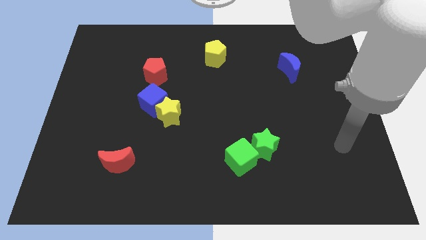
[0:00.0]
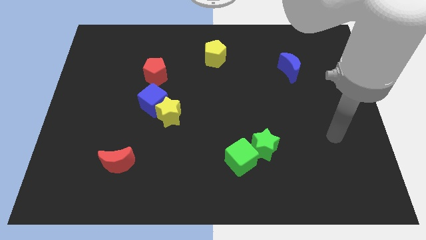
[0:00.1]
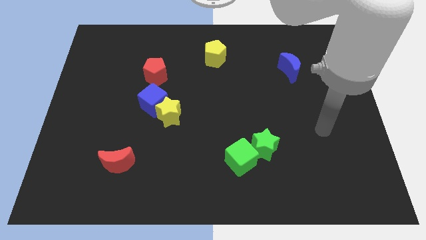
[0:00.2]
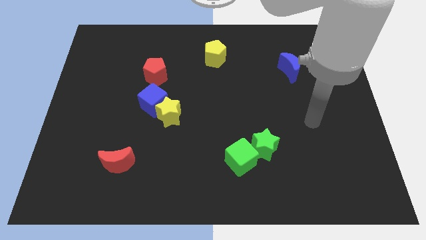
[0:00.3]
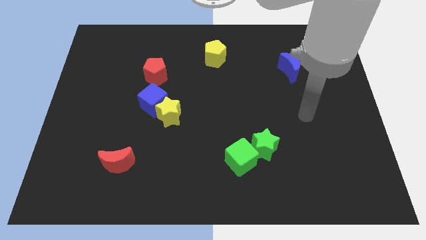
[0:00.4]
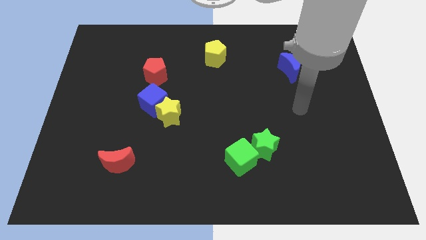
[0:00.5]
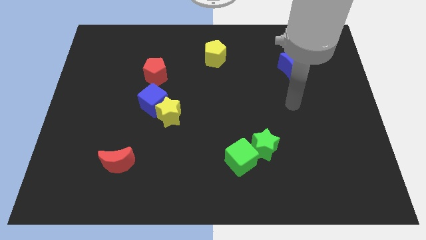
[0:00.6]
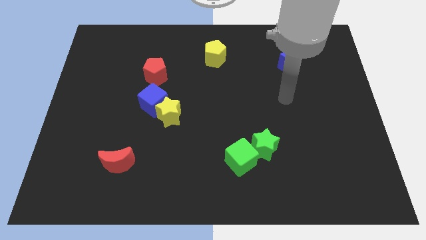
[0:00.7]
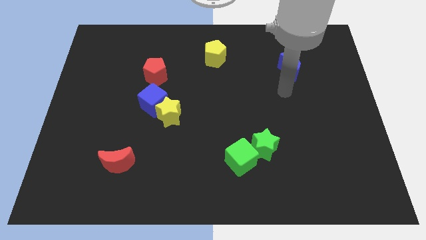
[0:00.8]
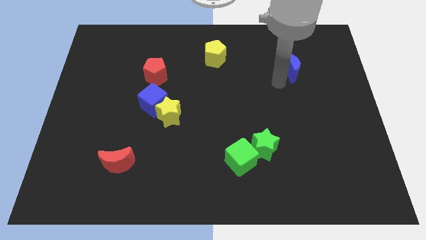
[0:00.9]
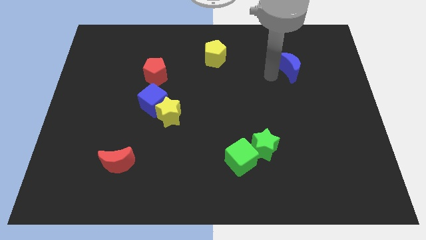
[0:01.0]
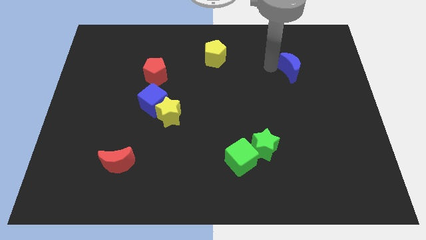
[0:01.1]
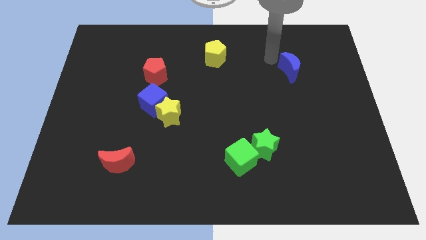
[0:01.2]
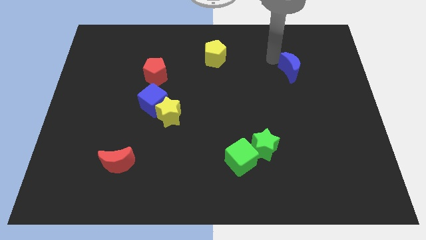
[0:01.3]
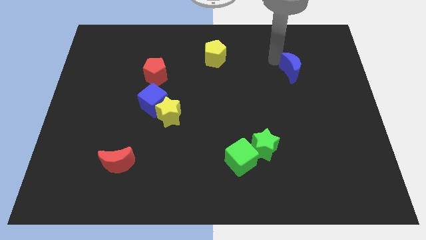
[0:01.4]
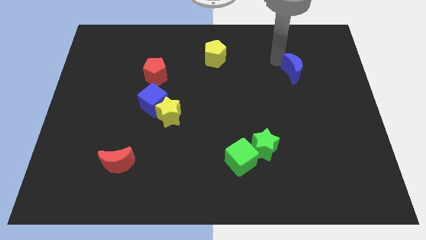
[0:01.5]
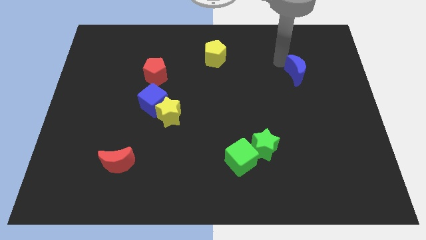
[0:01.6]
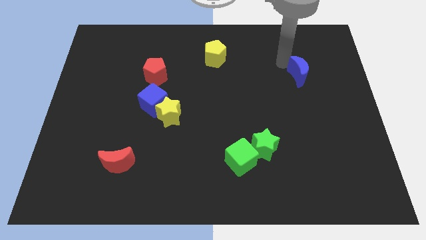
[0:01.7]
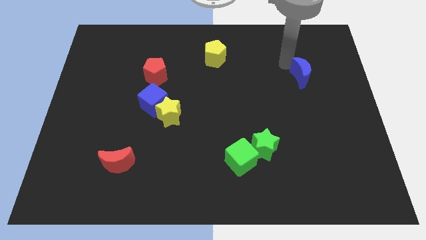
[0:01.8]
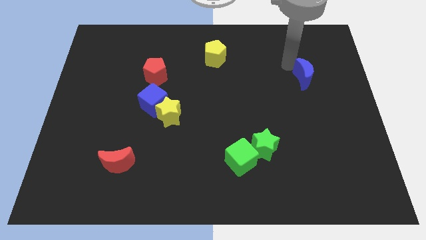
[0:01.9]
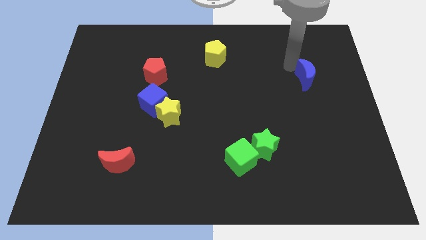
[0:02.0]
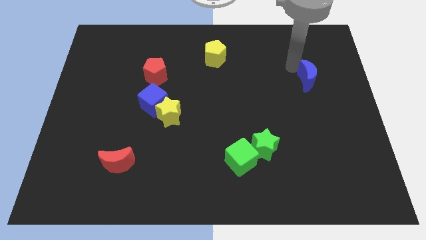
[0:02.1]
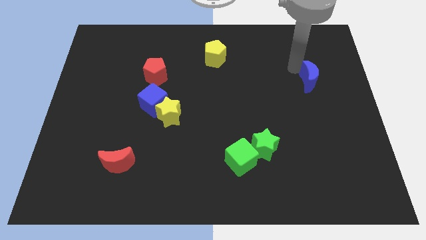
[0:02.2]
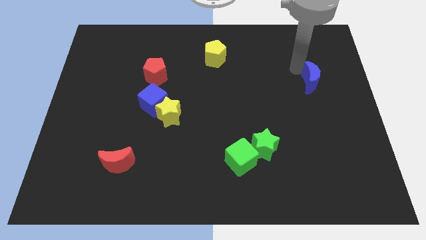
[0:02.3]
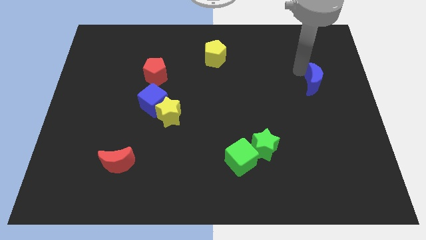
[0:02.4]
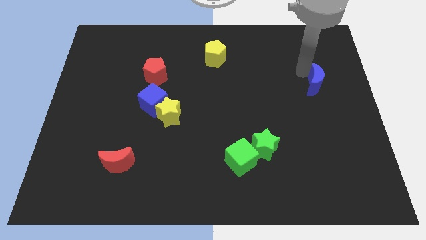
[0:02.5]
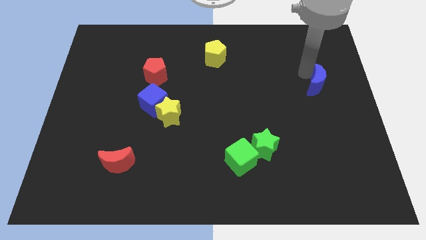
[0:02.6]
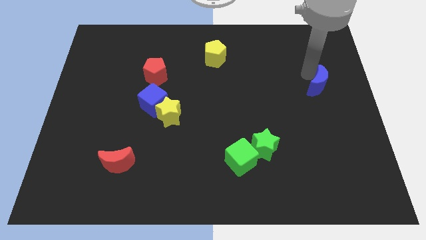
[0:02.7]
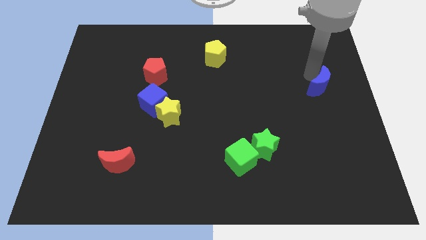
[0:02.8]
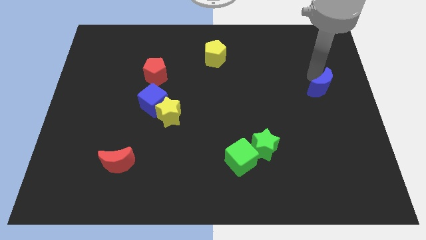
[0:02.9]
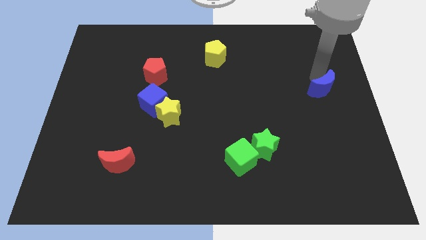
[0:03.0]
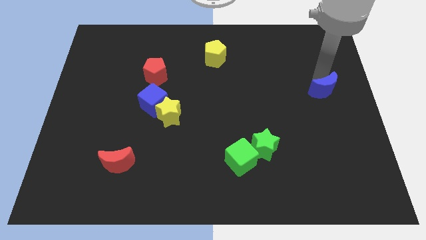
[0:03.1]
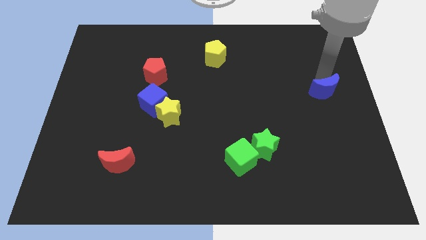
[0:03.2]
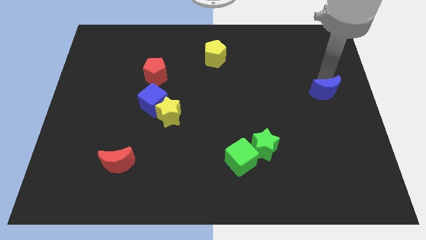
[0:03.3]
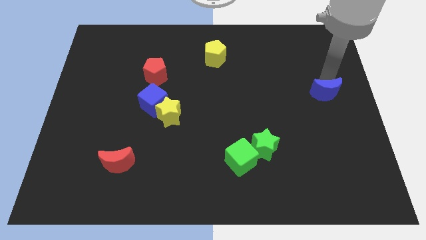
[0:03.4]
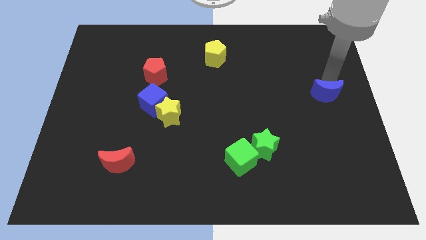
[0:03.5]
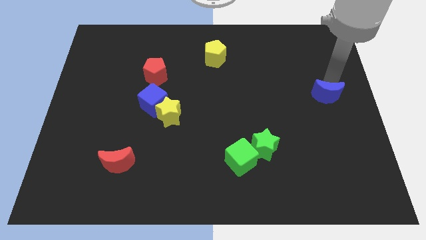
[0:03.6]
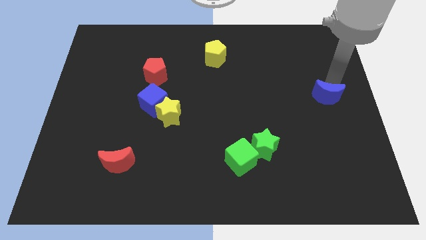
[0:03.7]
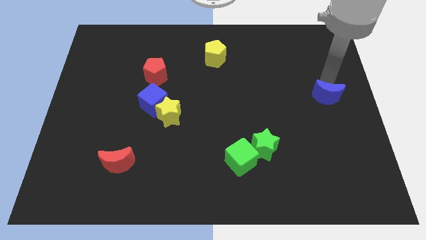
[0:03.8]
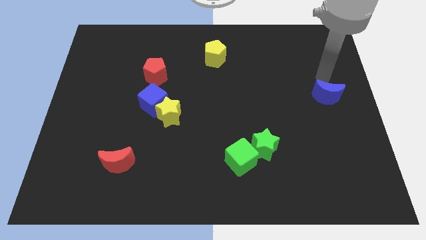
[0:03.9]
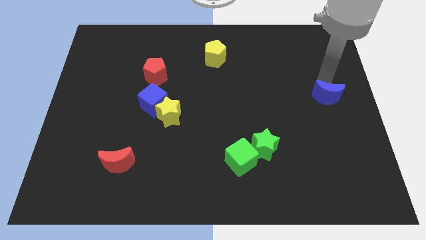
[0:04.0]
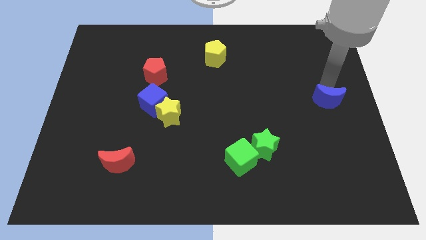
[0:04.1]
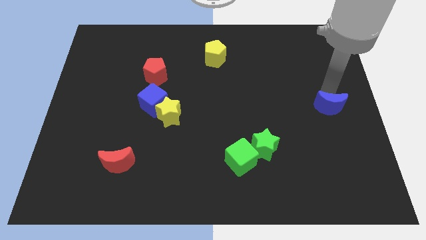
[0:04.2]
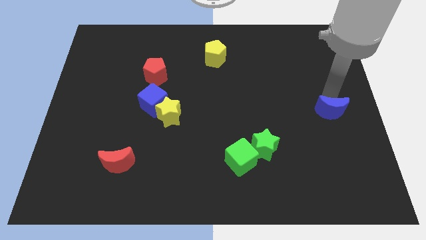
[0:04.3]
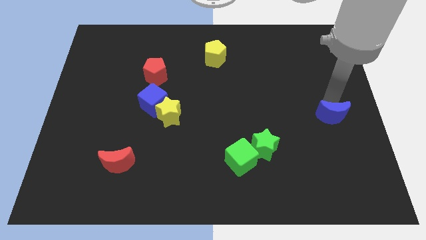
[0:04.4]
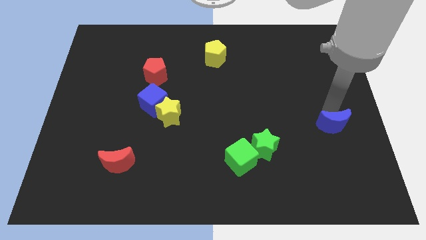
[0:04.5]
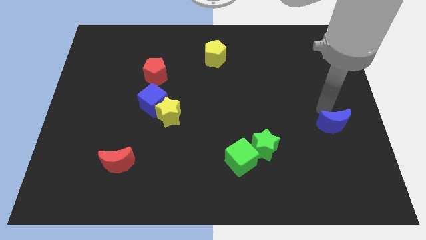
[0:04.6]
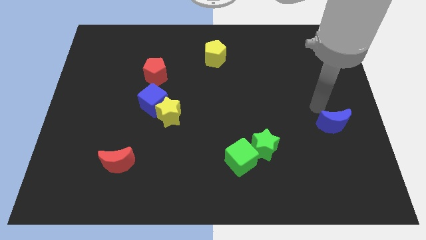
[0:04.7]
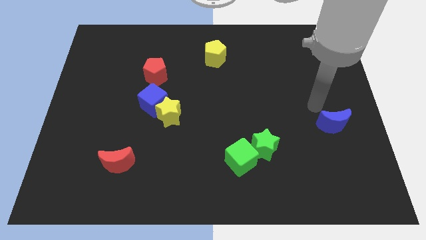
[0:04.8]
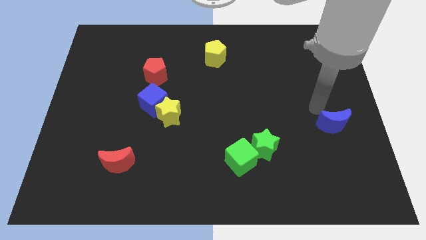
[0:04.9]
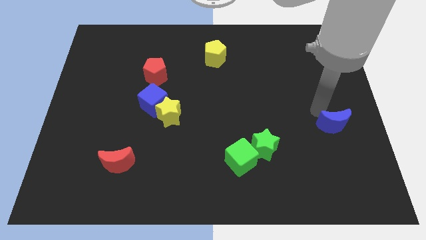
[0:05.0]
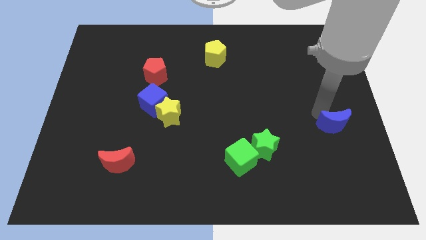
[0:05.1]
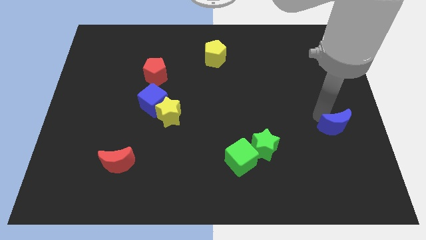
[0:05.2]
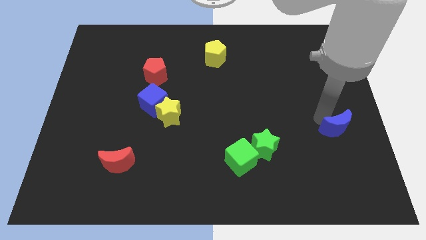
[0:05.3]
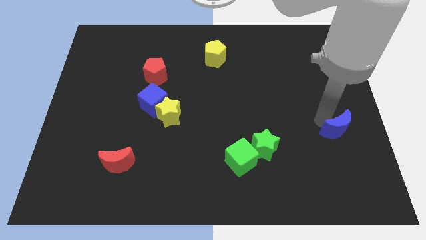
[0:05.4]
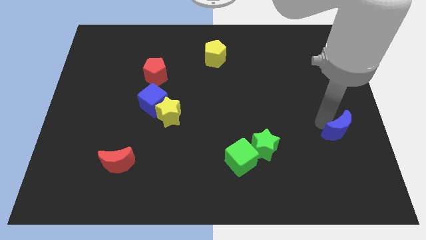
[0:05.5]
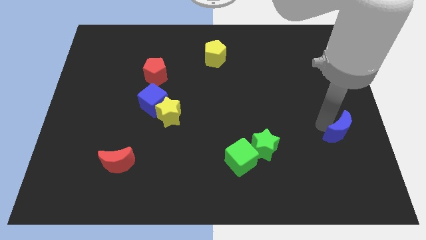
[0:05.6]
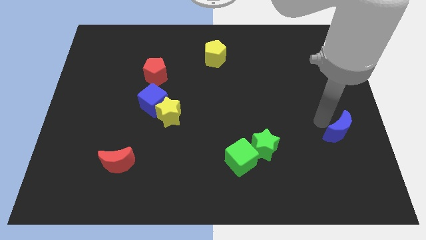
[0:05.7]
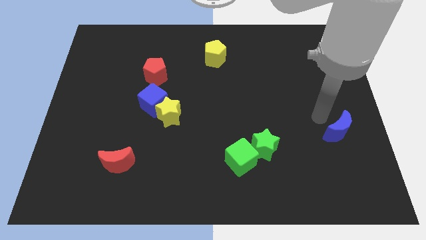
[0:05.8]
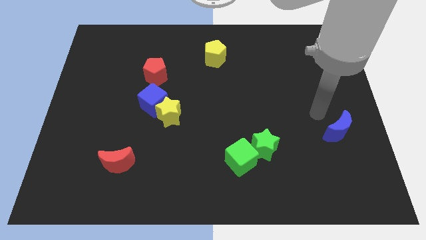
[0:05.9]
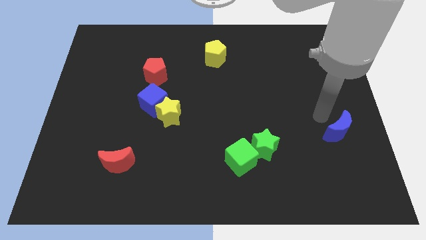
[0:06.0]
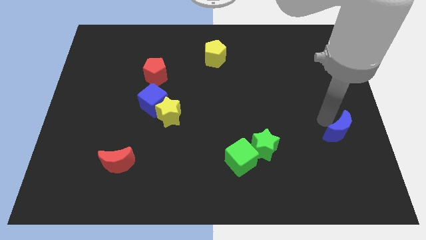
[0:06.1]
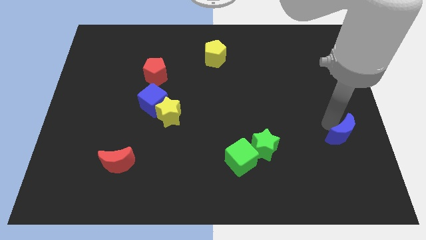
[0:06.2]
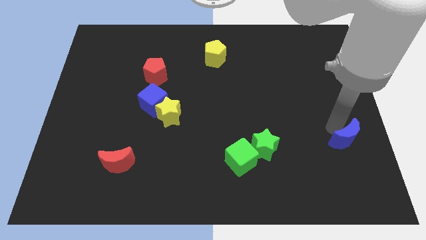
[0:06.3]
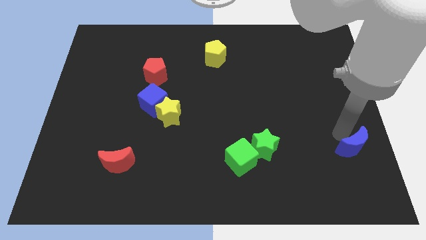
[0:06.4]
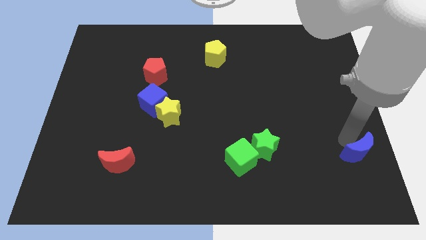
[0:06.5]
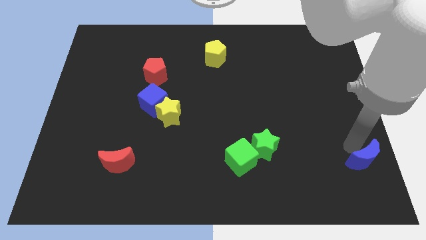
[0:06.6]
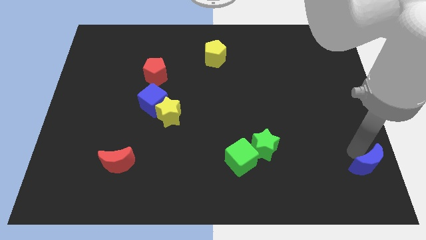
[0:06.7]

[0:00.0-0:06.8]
put the blue moon to the bottom right
